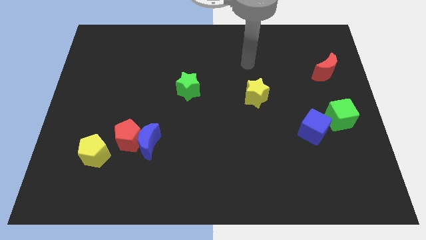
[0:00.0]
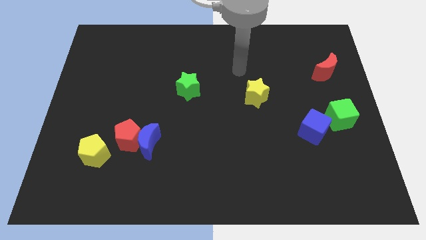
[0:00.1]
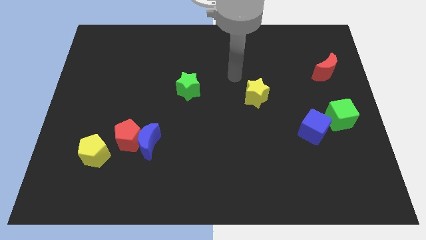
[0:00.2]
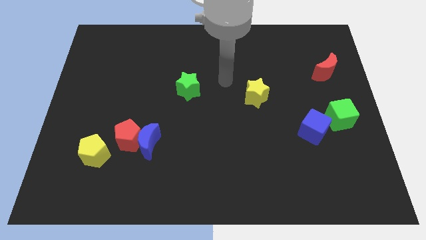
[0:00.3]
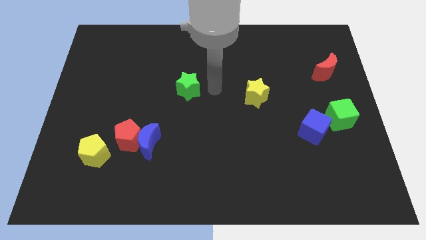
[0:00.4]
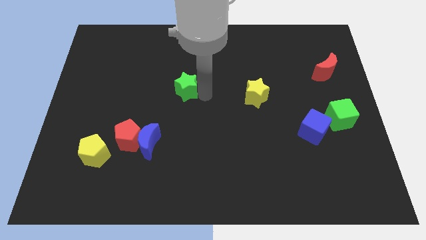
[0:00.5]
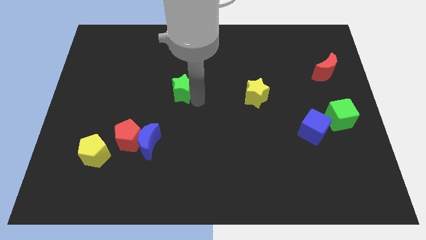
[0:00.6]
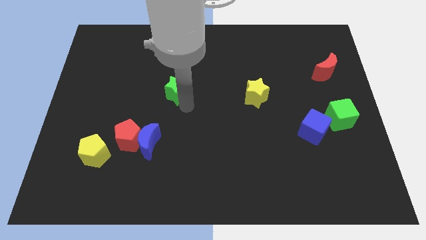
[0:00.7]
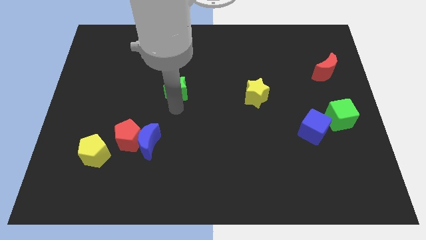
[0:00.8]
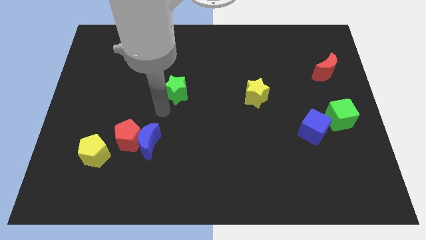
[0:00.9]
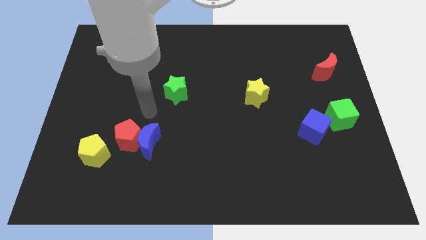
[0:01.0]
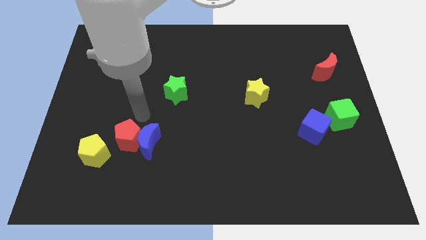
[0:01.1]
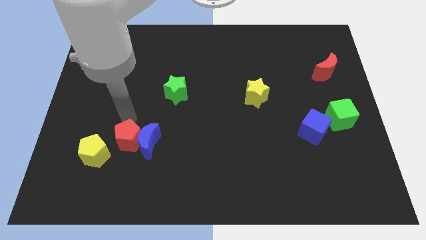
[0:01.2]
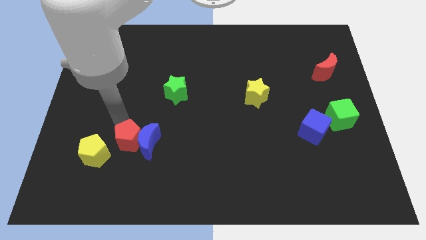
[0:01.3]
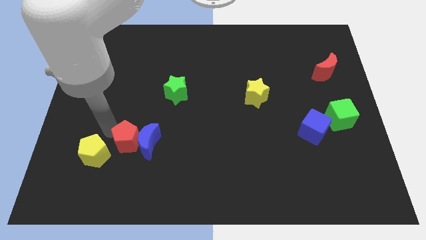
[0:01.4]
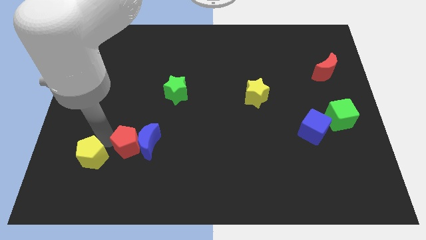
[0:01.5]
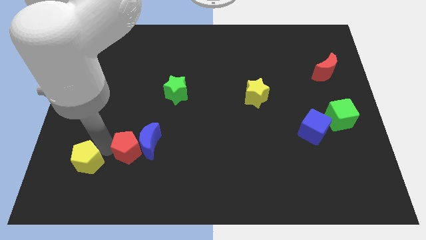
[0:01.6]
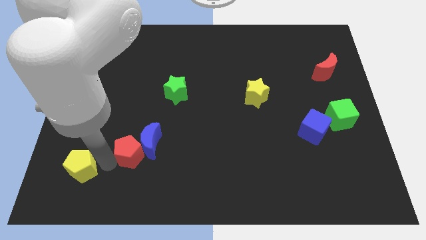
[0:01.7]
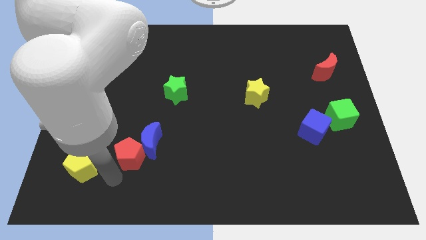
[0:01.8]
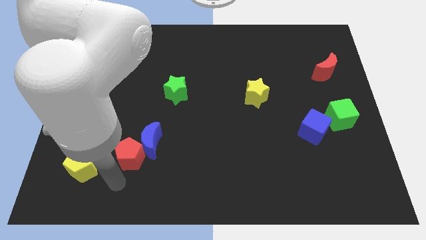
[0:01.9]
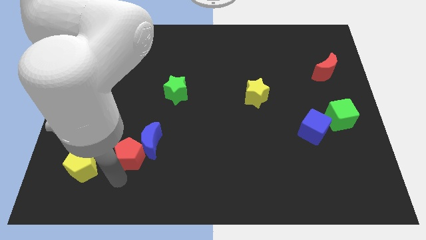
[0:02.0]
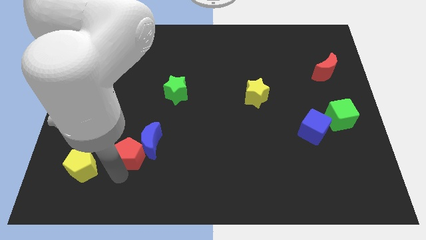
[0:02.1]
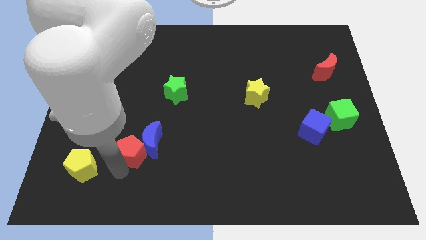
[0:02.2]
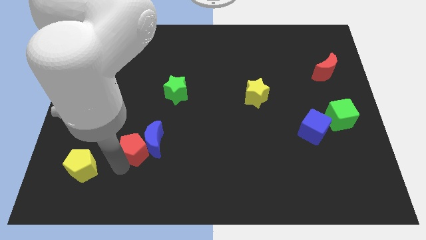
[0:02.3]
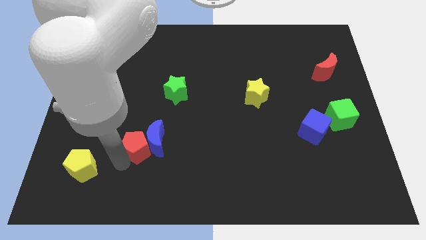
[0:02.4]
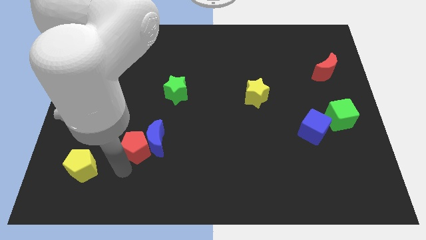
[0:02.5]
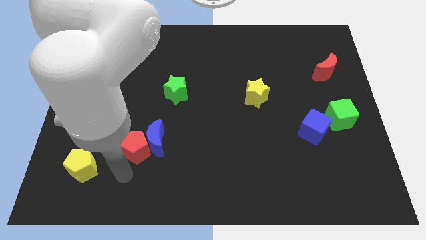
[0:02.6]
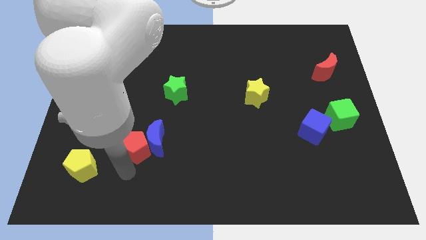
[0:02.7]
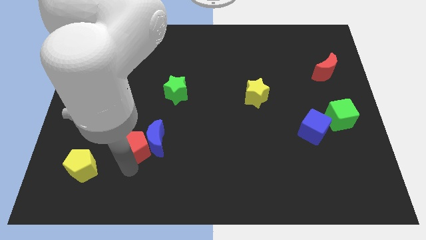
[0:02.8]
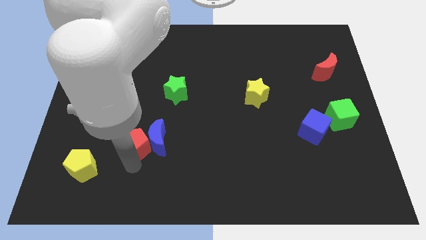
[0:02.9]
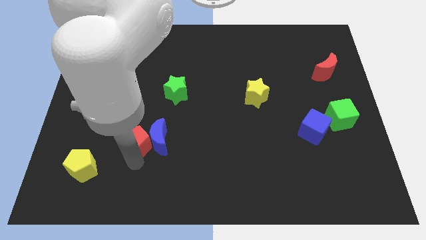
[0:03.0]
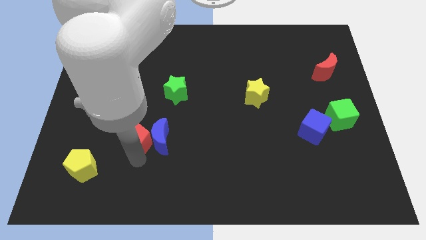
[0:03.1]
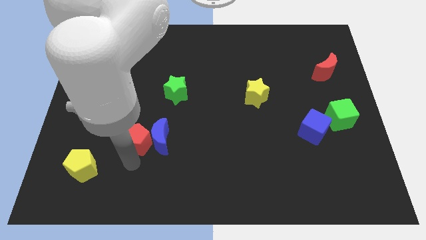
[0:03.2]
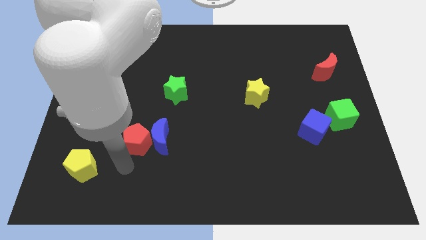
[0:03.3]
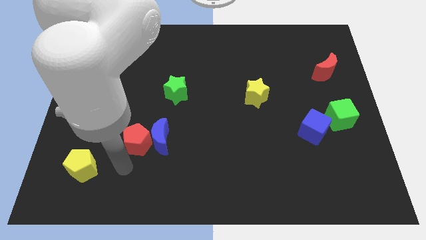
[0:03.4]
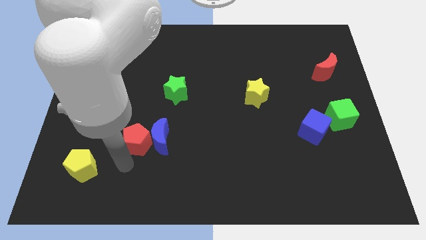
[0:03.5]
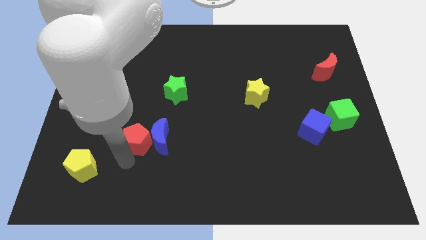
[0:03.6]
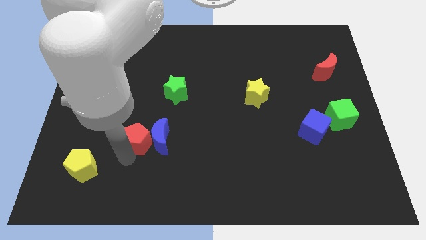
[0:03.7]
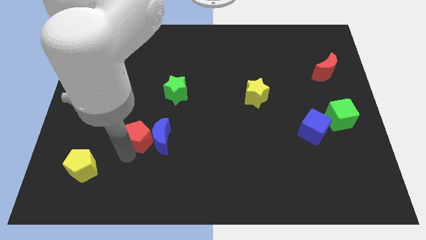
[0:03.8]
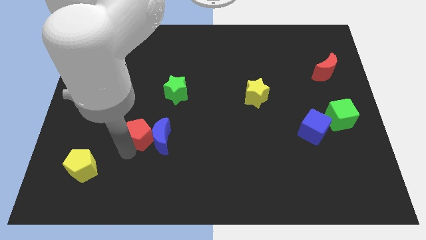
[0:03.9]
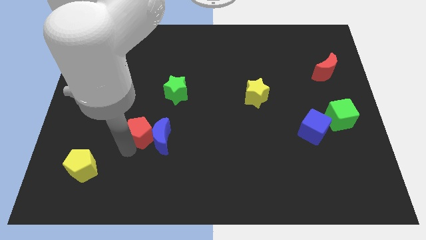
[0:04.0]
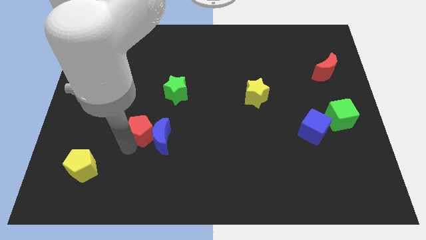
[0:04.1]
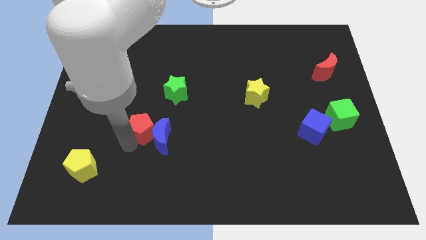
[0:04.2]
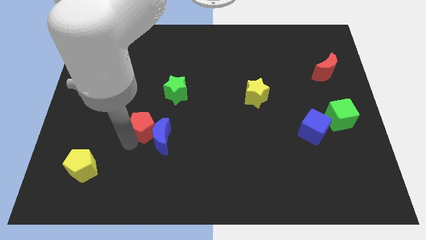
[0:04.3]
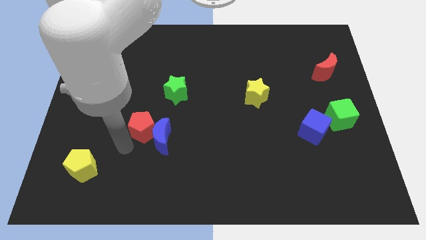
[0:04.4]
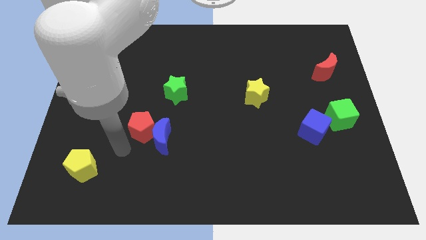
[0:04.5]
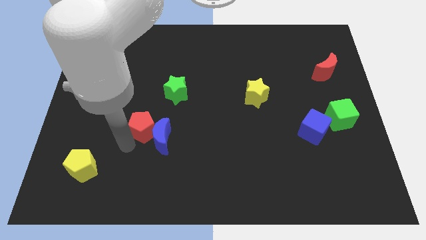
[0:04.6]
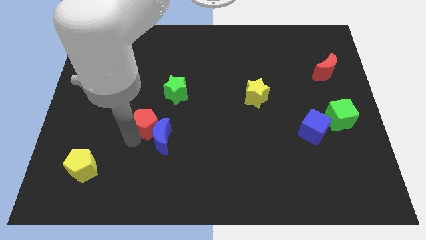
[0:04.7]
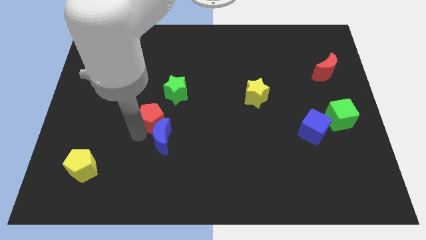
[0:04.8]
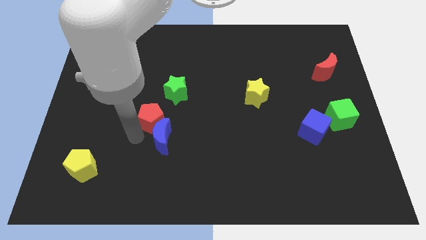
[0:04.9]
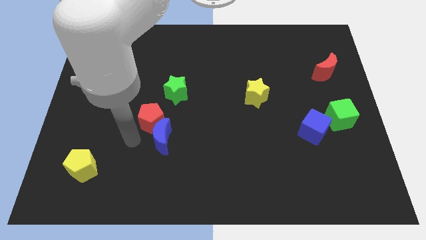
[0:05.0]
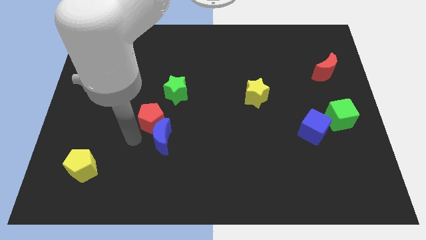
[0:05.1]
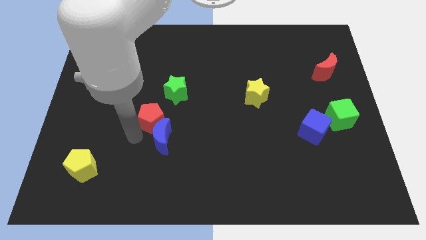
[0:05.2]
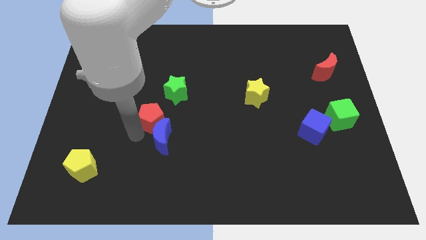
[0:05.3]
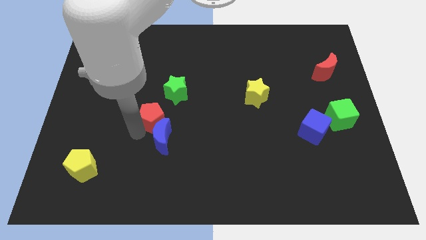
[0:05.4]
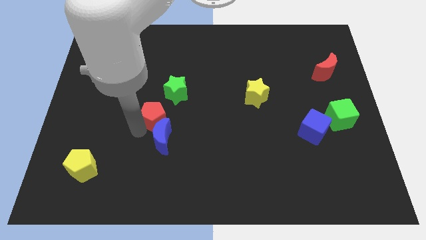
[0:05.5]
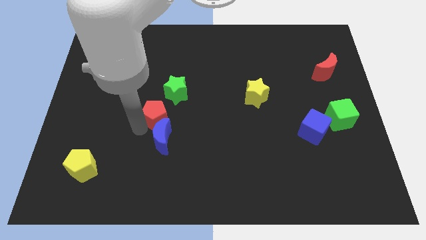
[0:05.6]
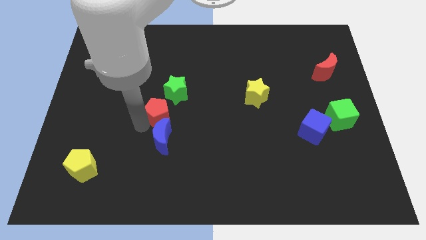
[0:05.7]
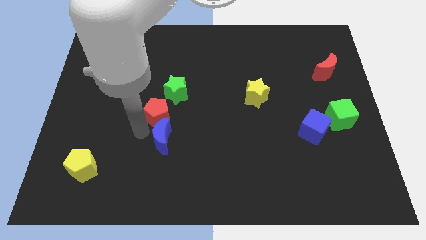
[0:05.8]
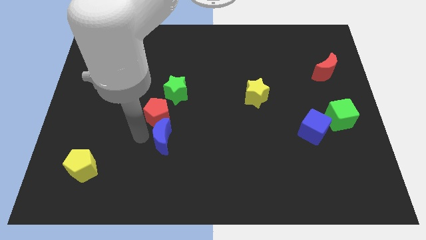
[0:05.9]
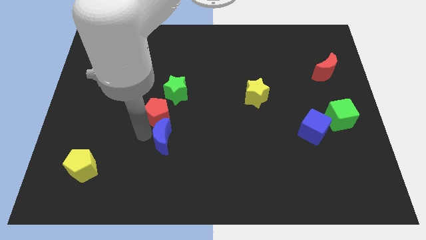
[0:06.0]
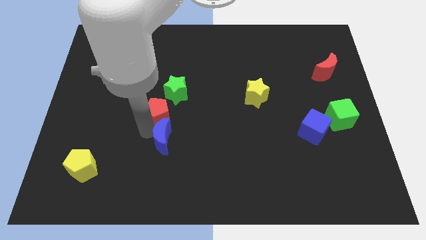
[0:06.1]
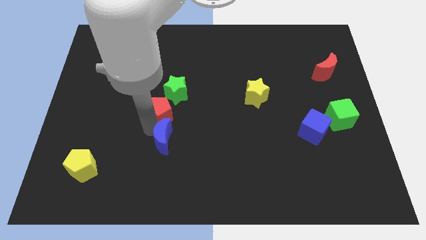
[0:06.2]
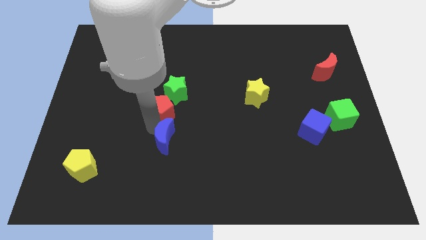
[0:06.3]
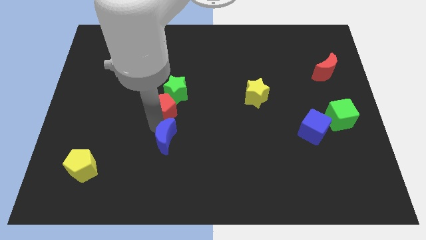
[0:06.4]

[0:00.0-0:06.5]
put the red pentagon towards the green star

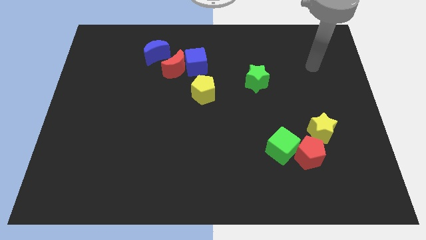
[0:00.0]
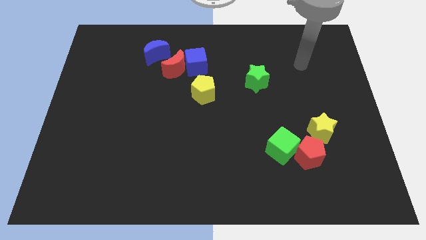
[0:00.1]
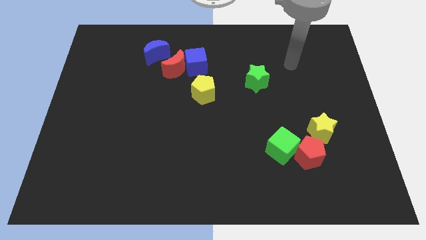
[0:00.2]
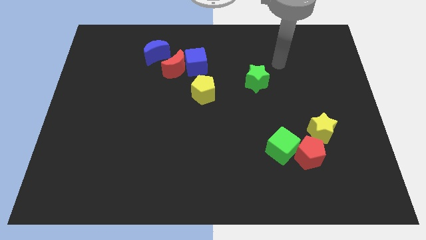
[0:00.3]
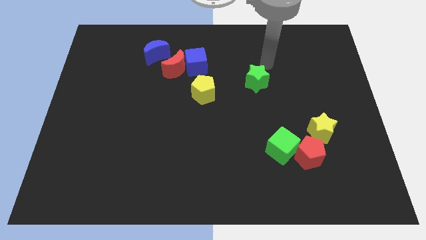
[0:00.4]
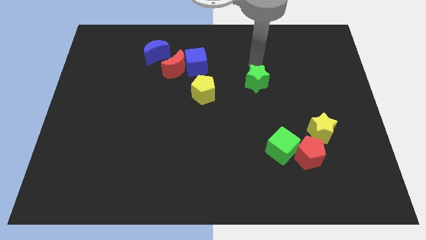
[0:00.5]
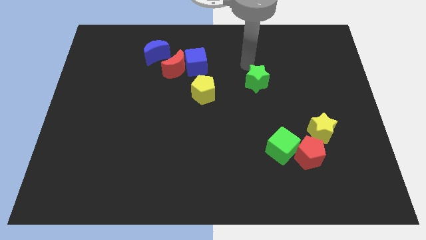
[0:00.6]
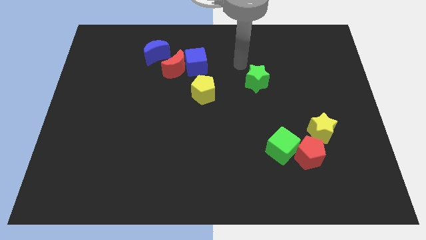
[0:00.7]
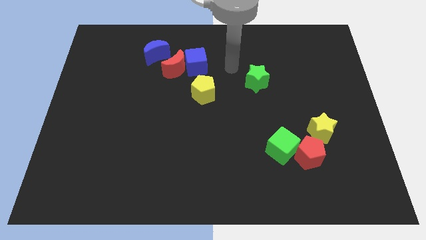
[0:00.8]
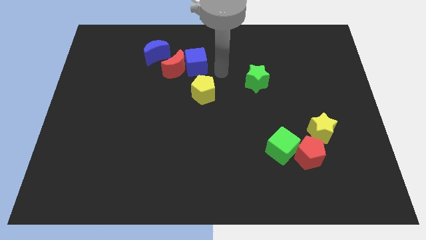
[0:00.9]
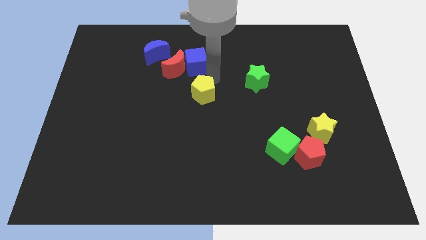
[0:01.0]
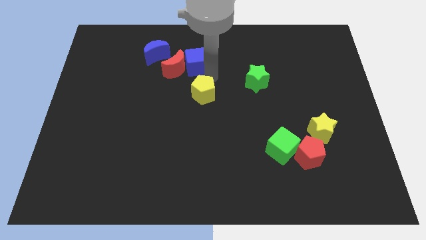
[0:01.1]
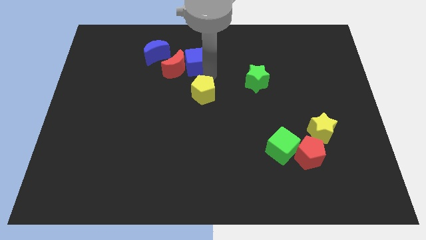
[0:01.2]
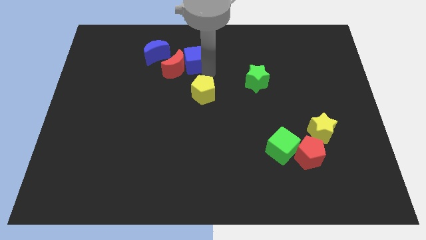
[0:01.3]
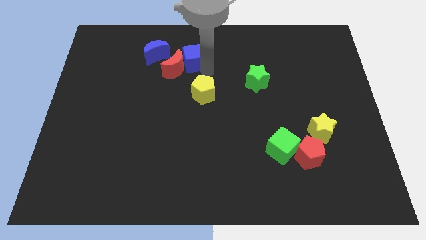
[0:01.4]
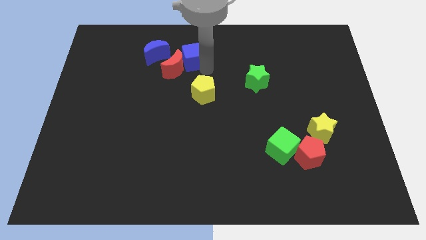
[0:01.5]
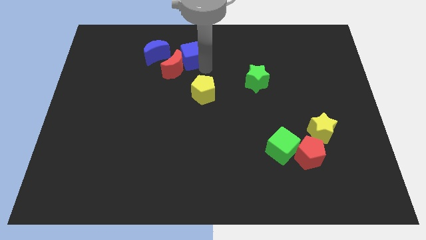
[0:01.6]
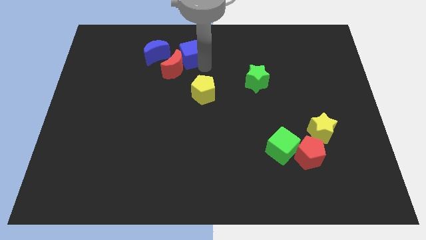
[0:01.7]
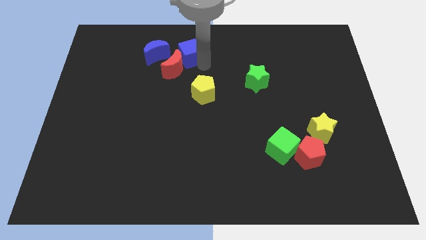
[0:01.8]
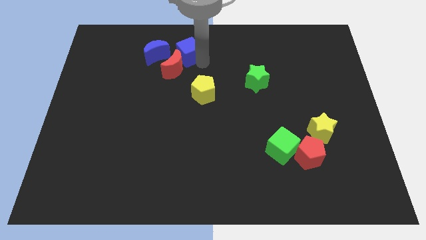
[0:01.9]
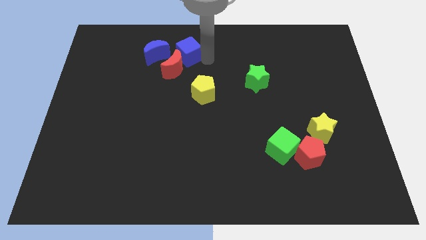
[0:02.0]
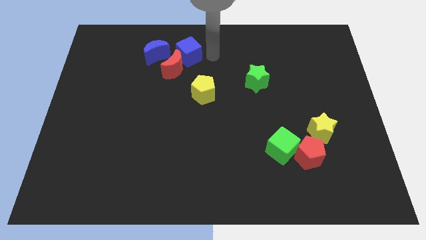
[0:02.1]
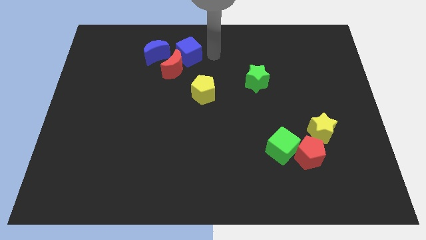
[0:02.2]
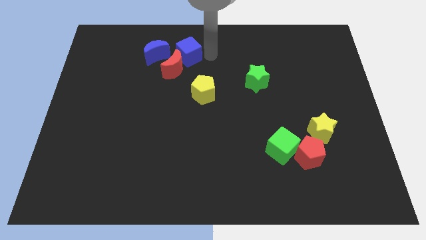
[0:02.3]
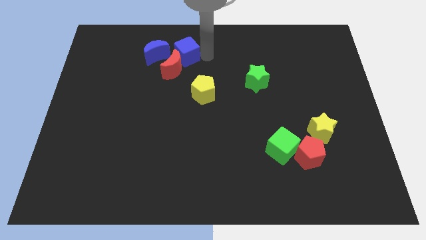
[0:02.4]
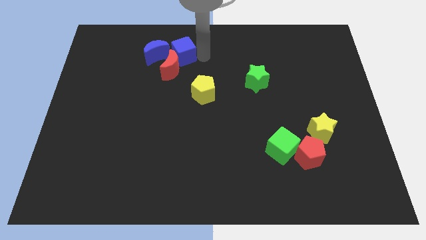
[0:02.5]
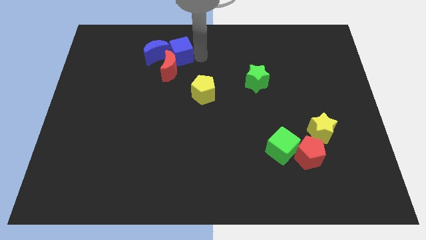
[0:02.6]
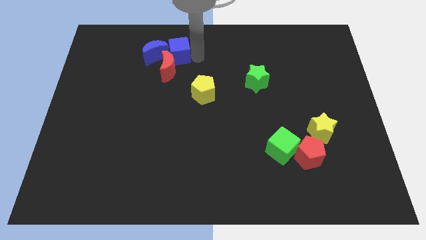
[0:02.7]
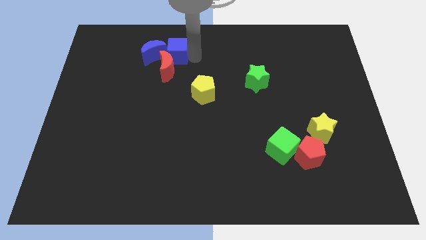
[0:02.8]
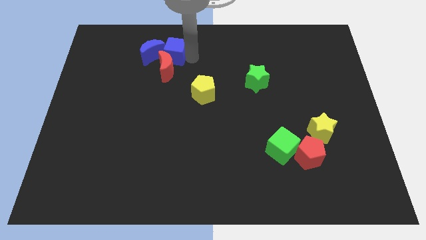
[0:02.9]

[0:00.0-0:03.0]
slide the blue cube close to the blue moon
